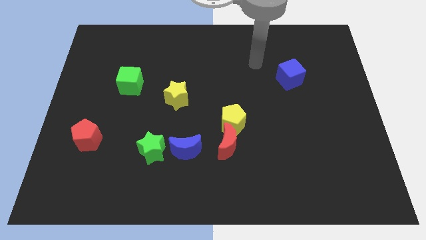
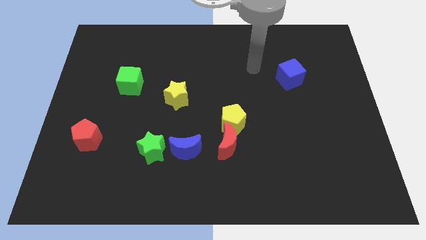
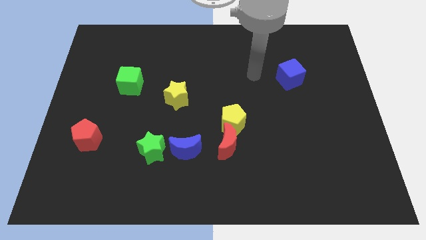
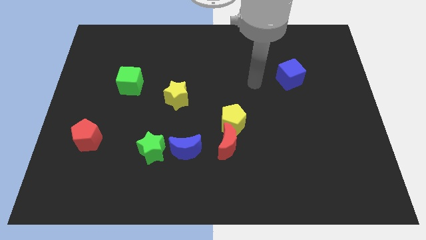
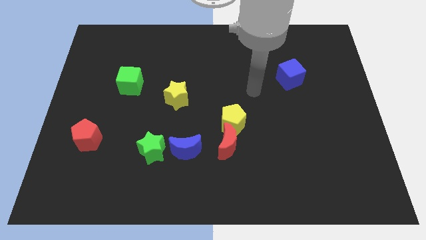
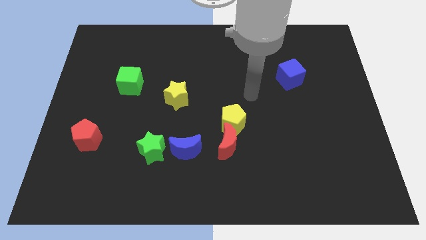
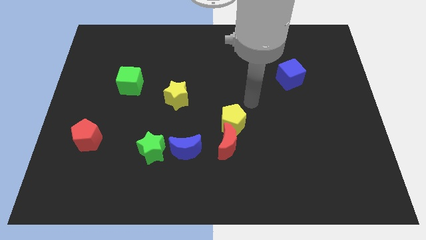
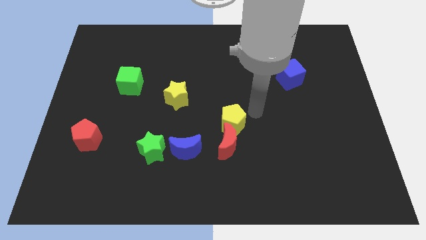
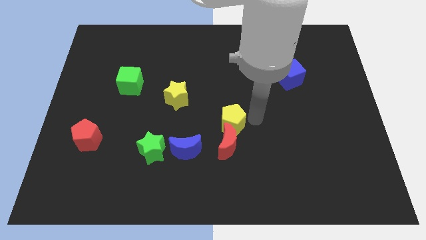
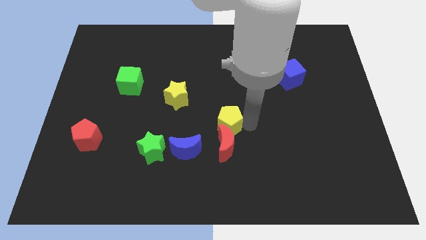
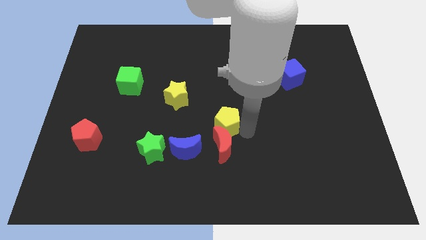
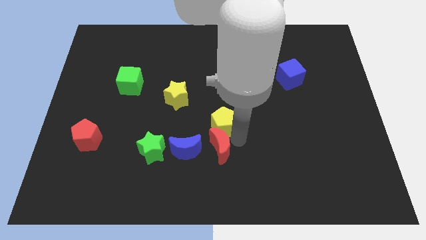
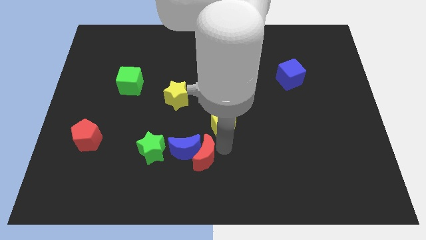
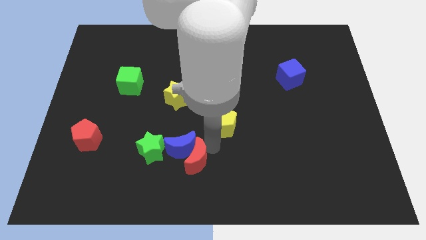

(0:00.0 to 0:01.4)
separate the yellow pentagon from the red moon

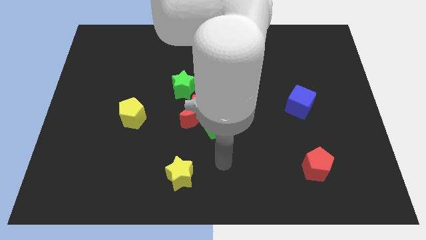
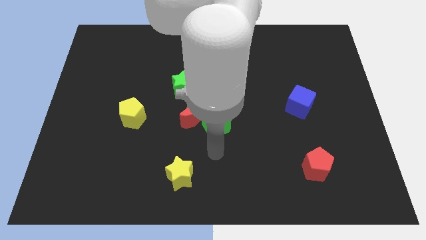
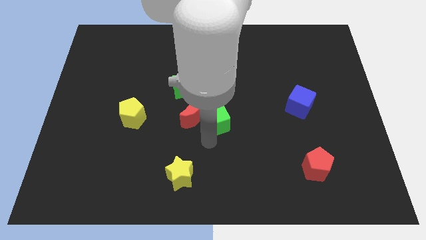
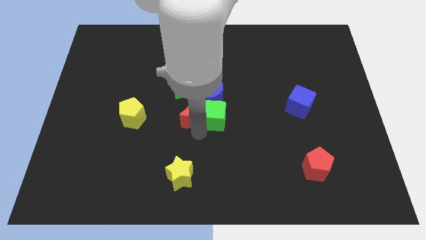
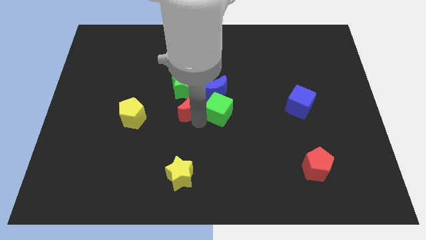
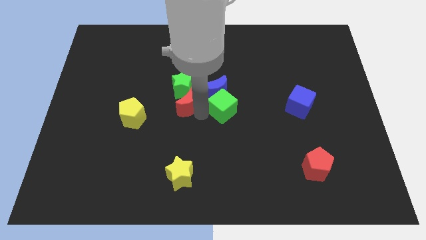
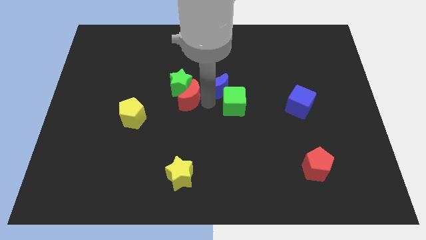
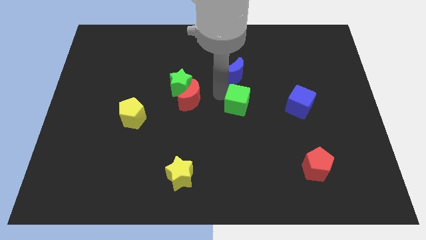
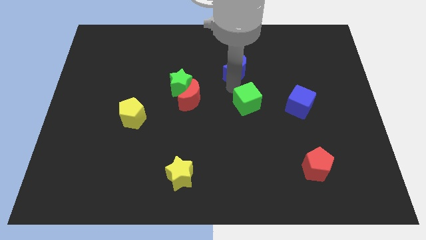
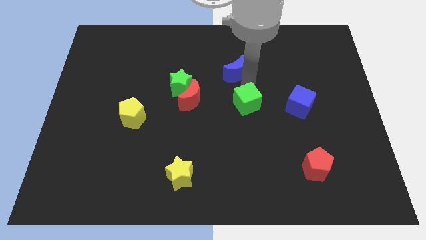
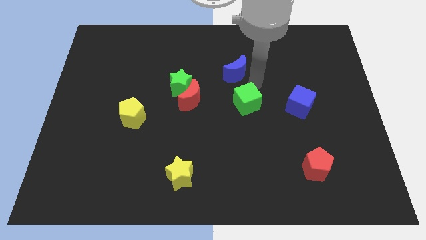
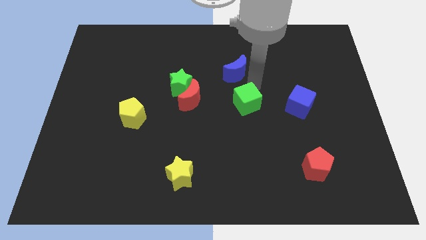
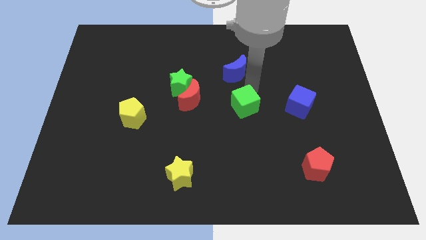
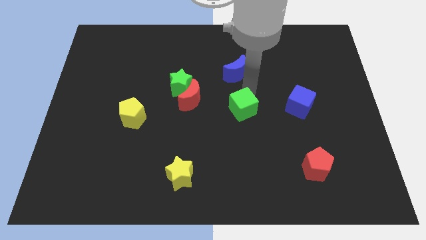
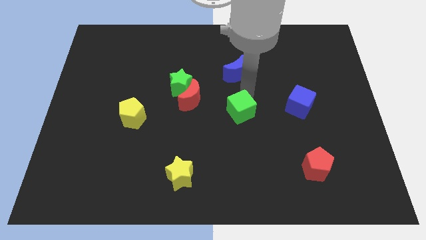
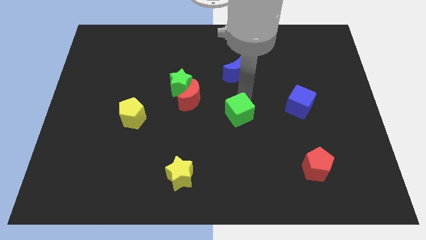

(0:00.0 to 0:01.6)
move the green cube away from the red moon and blue moon

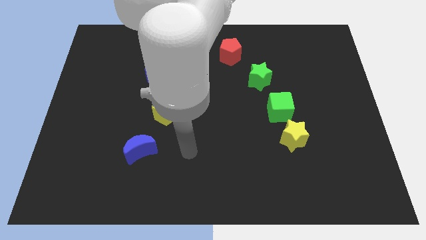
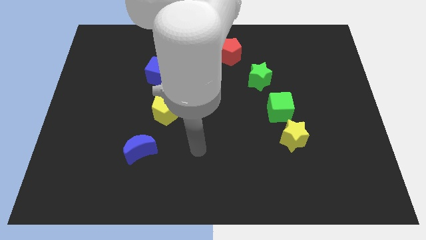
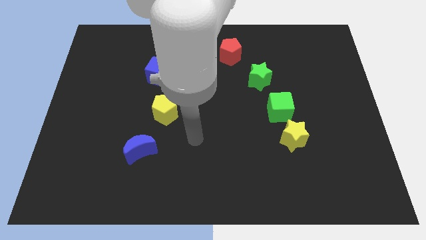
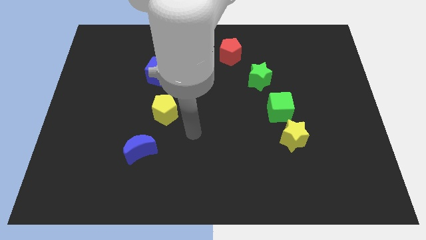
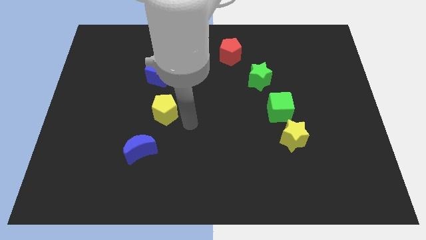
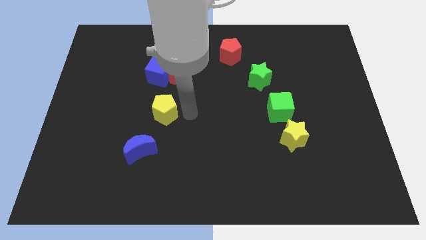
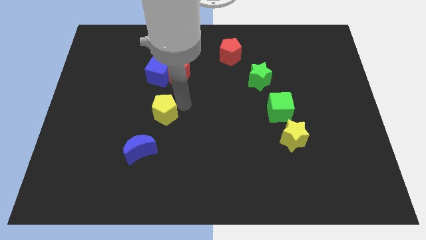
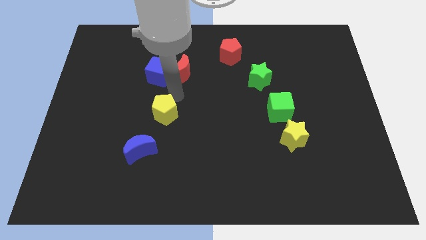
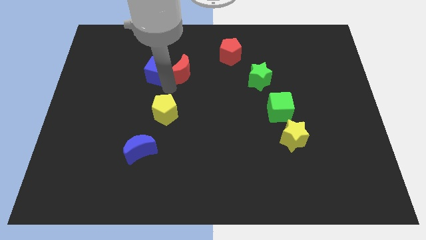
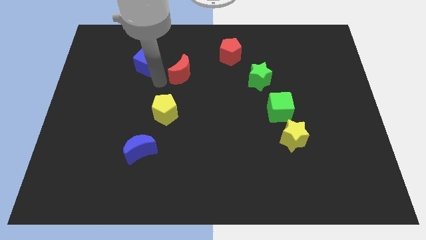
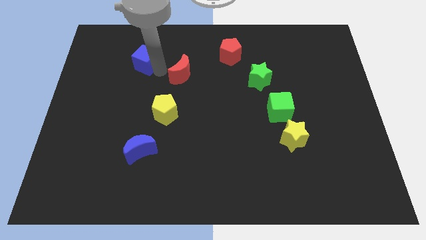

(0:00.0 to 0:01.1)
move the red moon away from the blue cube

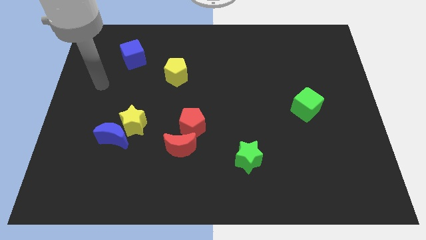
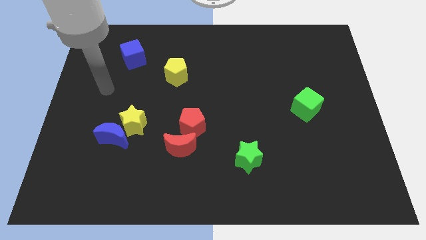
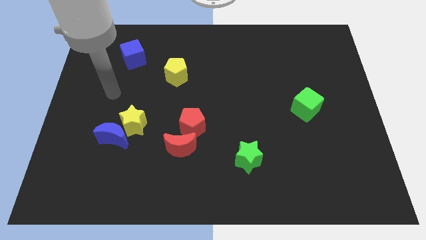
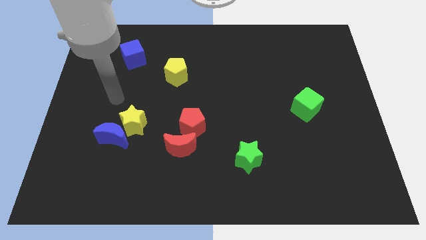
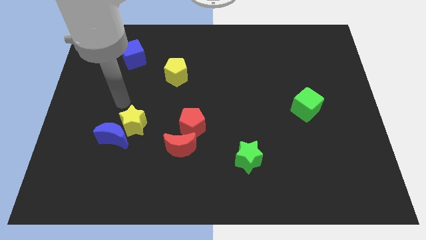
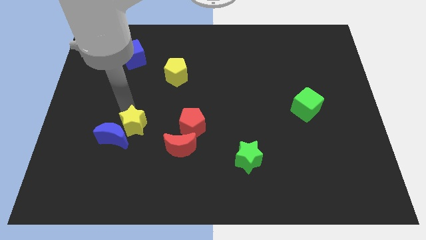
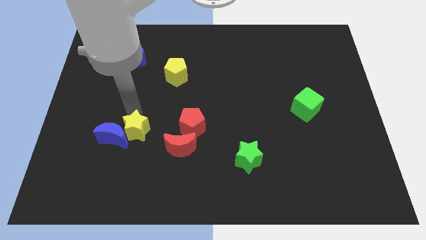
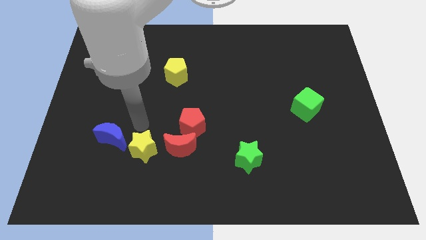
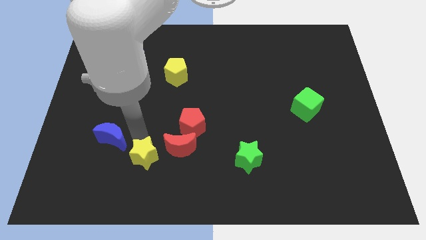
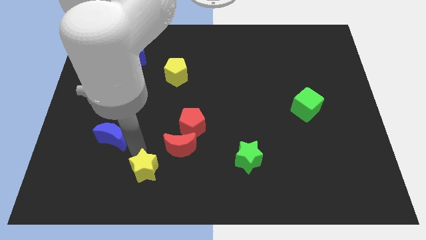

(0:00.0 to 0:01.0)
move the blue moon away from the yellow star

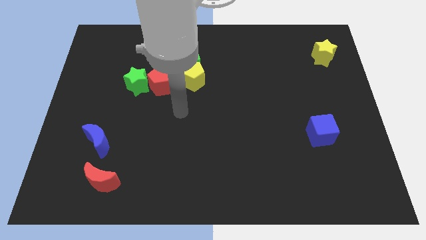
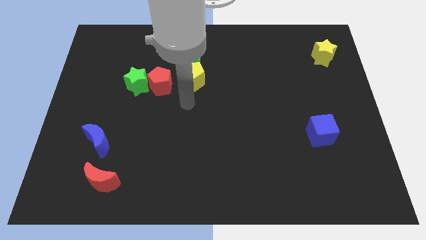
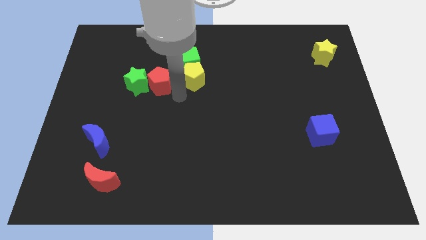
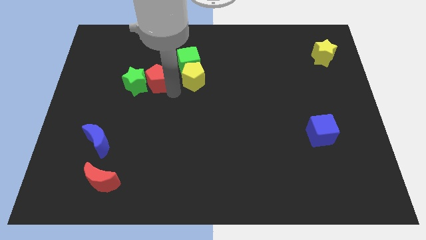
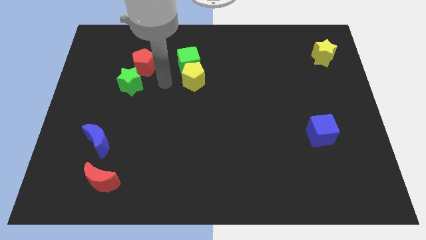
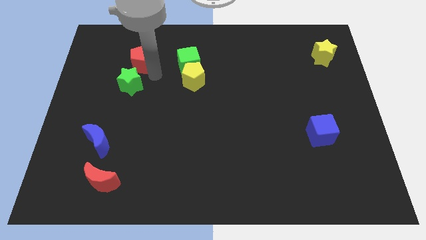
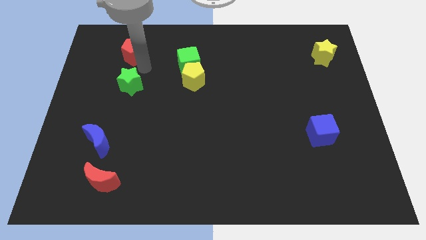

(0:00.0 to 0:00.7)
separate the green star from the red pentagon

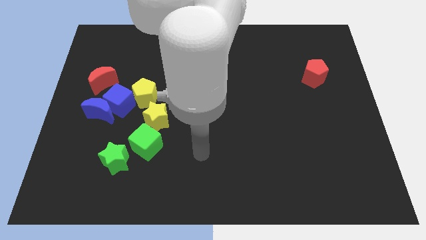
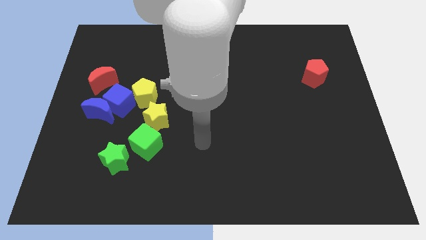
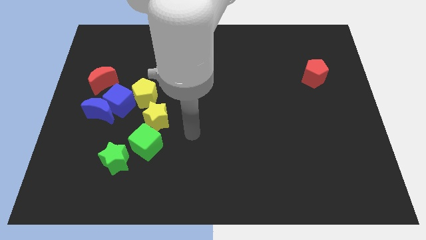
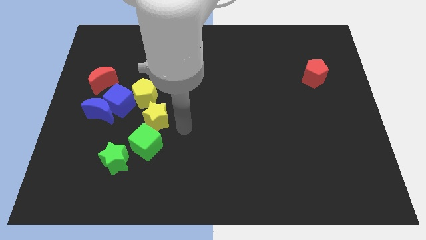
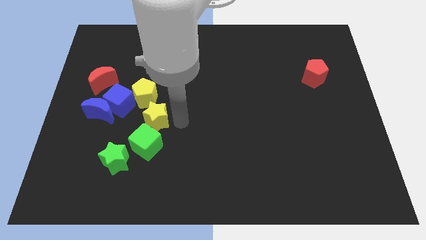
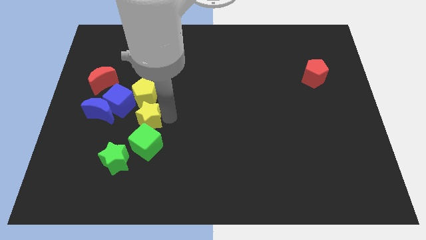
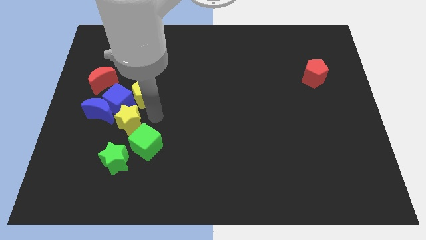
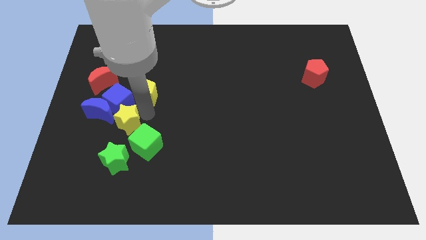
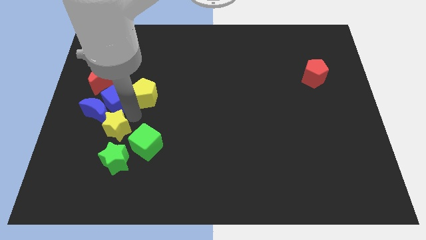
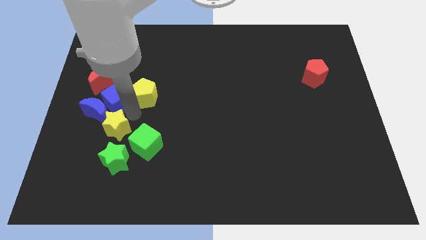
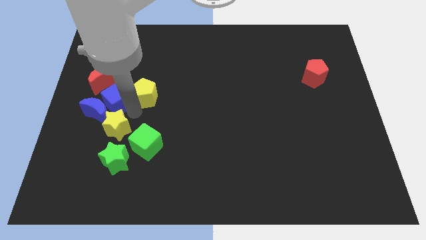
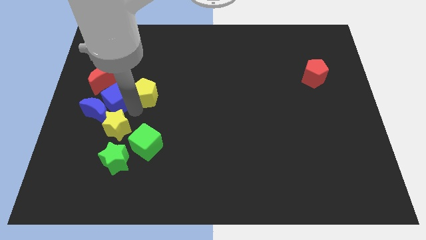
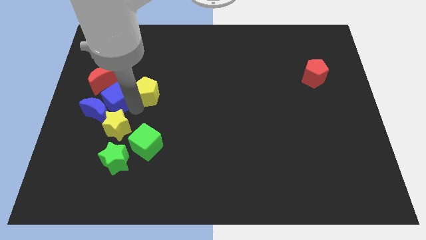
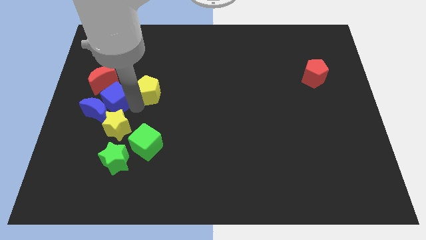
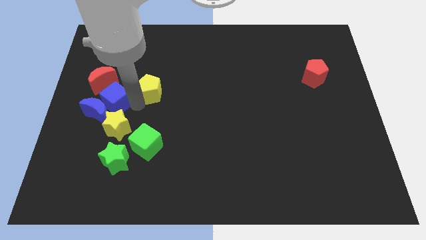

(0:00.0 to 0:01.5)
pull the yellow pentagon apart from the blue cube and yellow star

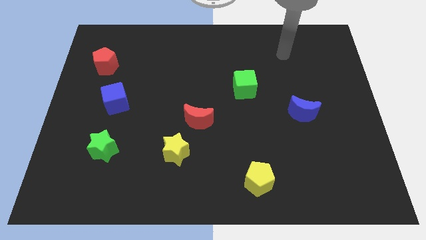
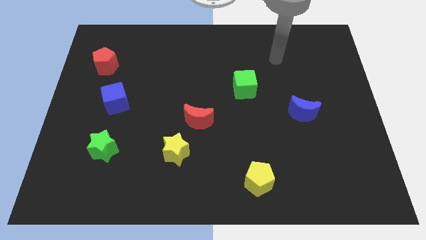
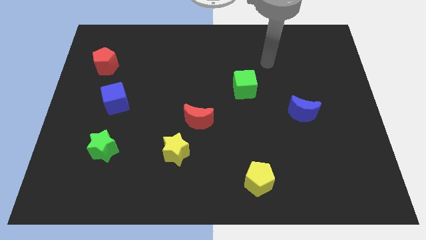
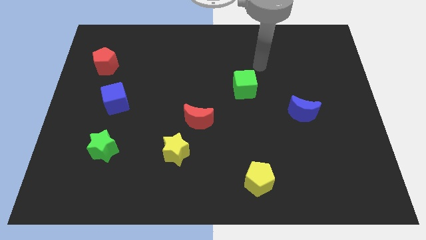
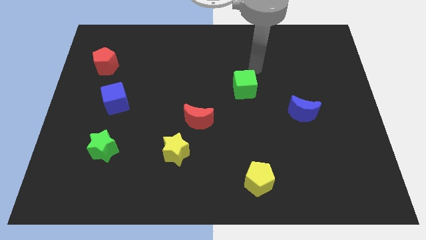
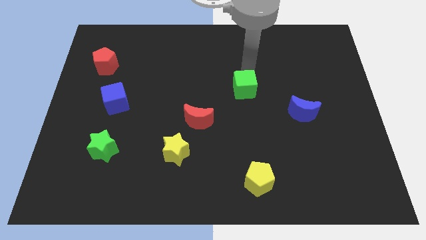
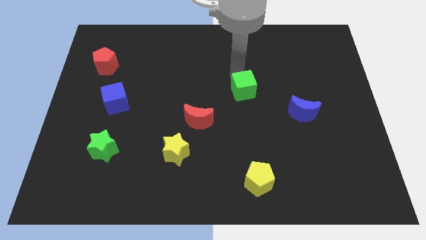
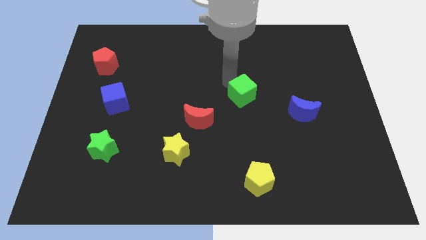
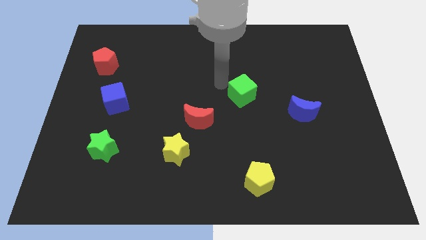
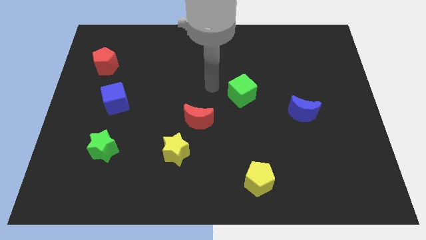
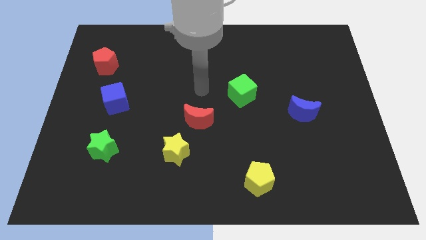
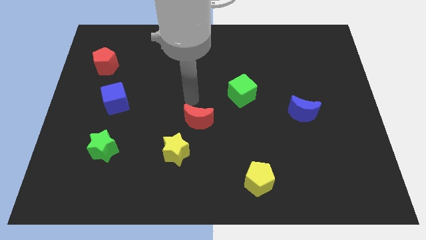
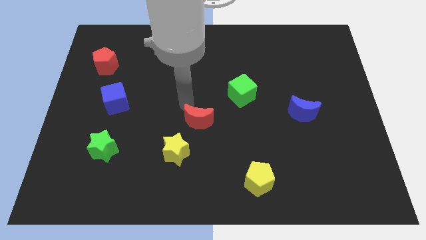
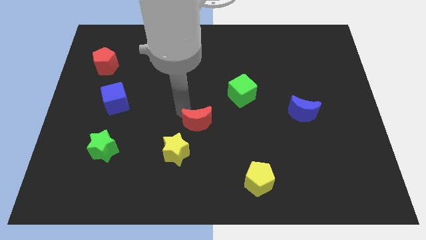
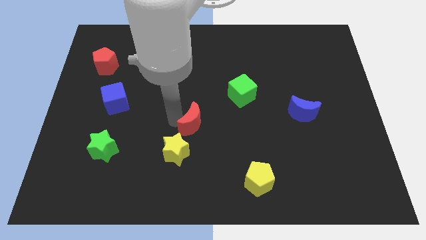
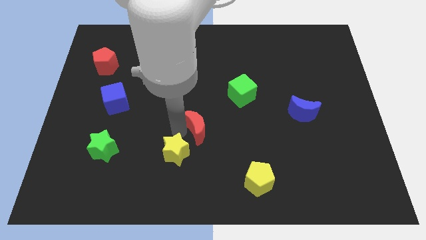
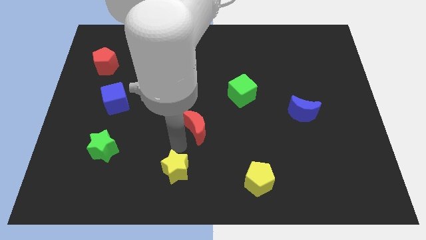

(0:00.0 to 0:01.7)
move the red moon away from the yellow star

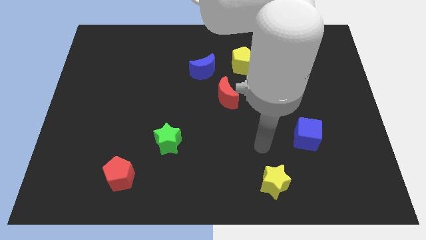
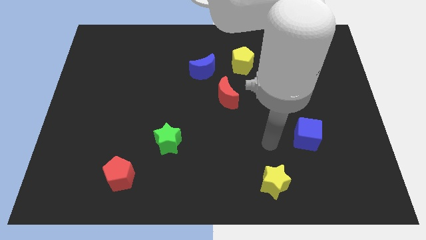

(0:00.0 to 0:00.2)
pull the yellow pentagon apart from the blue moon

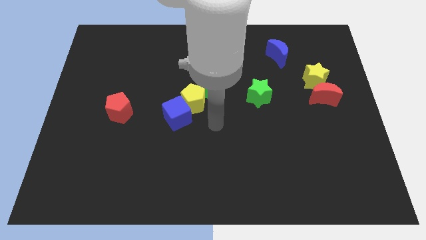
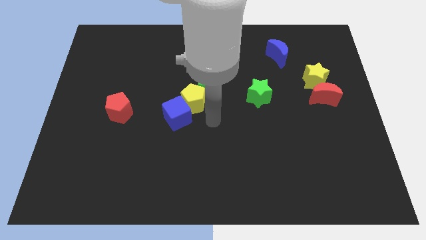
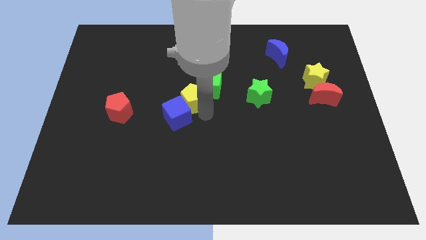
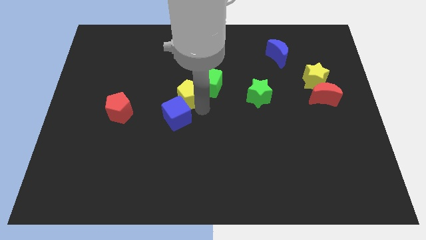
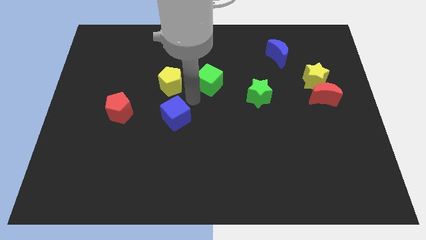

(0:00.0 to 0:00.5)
separate the blue cube from the yellow pentagon
